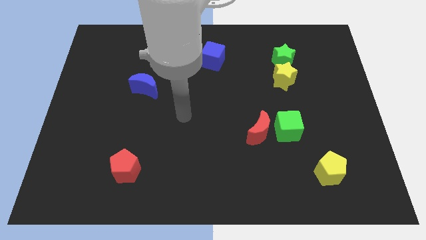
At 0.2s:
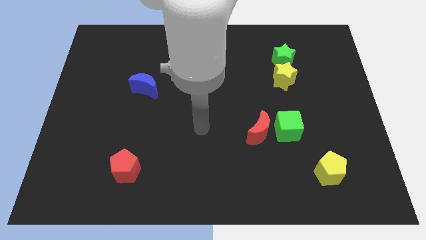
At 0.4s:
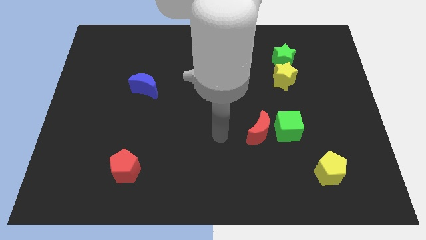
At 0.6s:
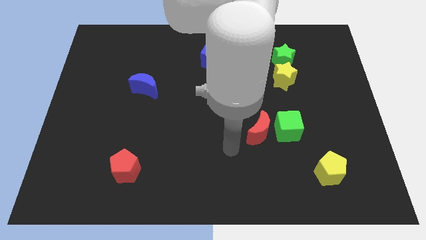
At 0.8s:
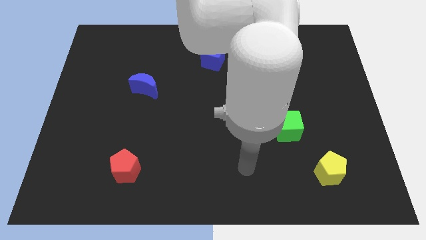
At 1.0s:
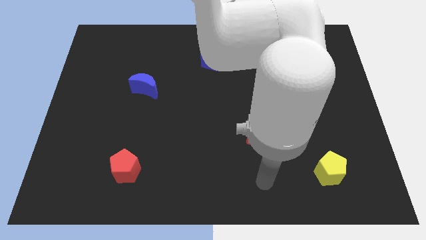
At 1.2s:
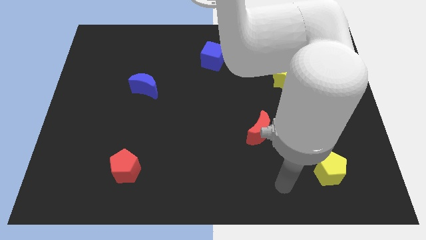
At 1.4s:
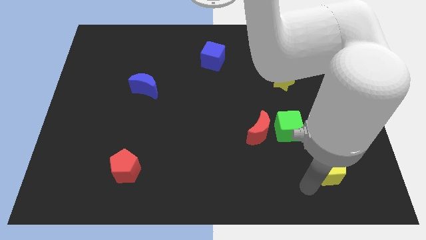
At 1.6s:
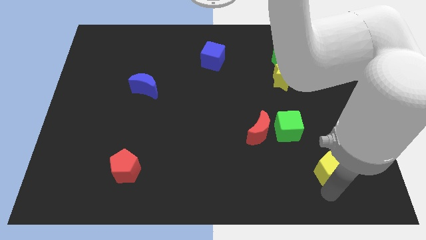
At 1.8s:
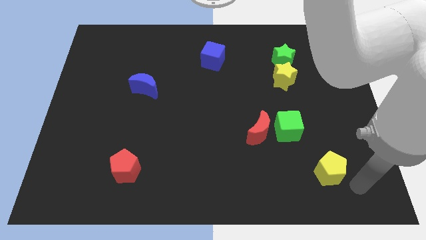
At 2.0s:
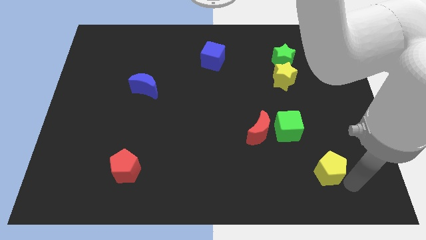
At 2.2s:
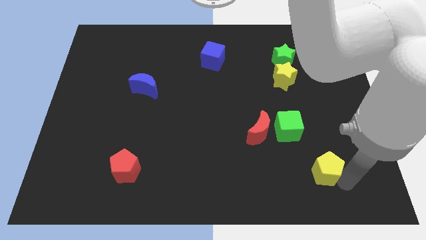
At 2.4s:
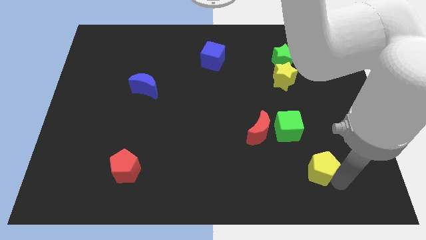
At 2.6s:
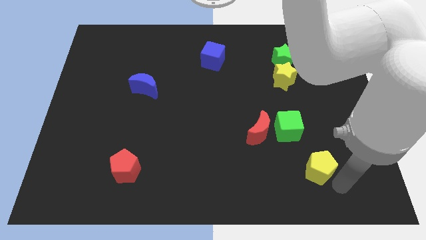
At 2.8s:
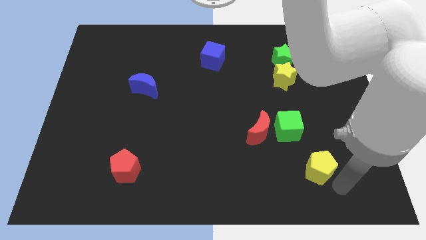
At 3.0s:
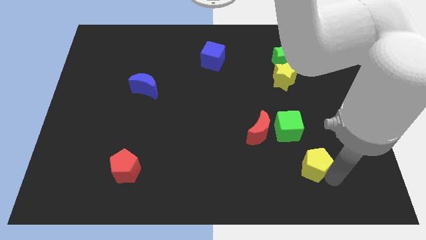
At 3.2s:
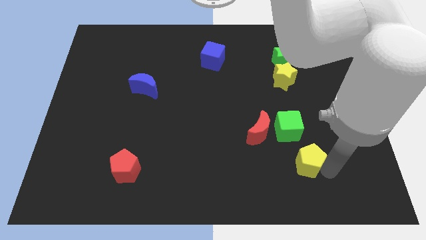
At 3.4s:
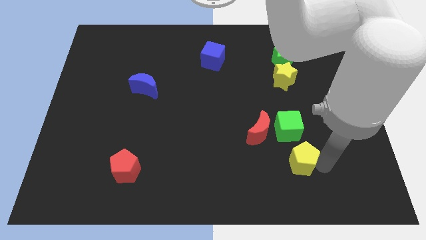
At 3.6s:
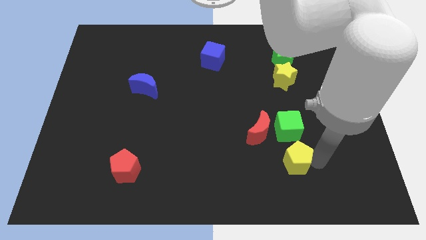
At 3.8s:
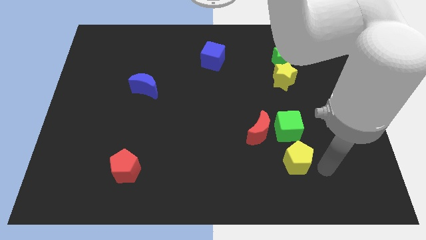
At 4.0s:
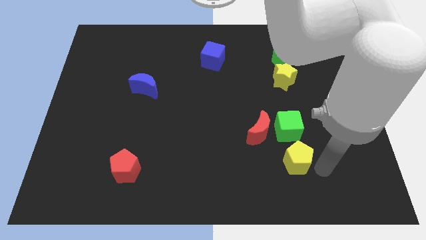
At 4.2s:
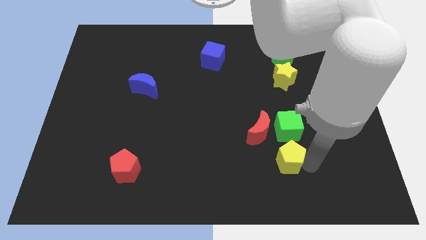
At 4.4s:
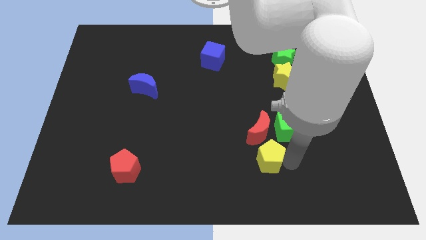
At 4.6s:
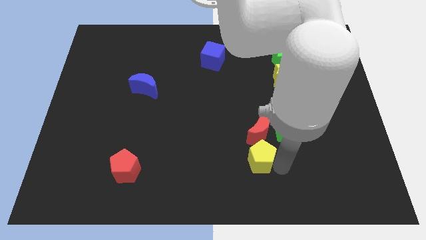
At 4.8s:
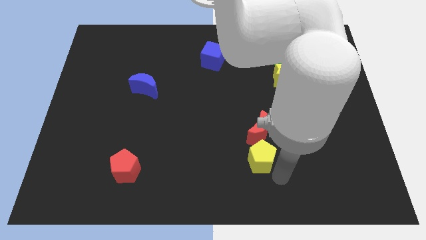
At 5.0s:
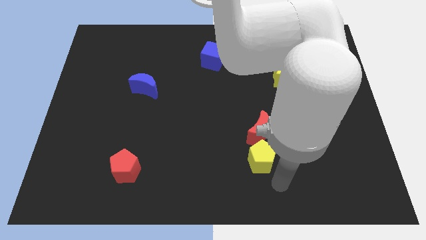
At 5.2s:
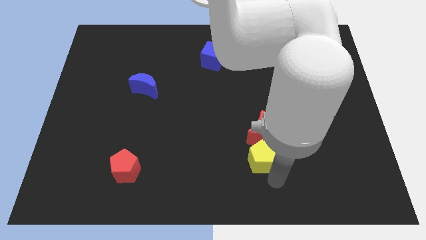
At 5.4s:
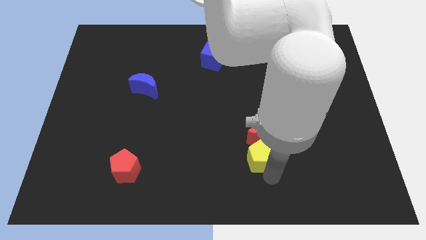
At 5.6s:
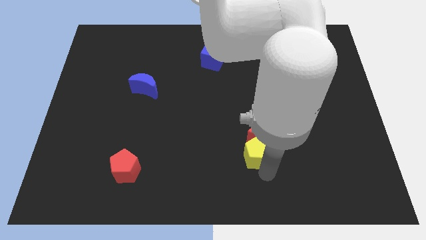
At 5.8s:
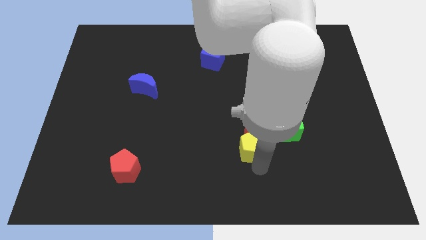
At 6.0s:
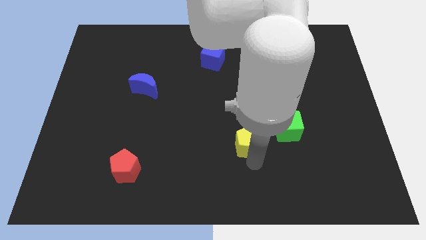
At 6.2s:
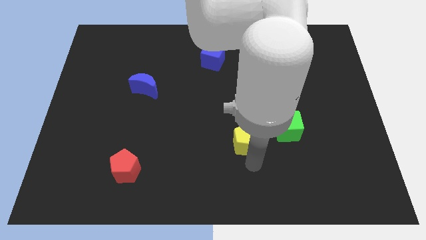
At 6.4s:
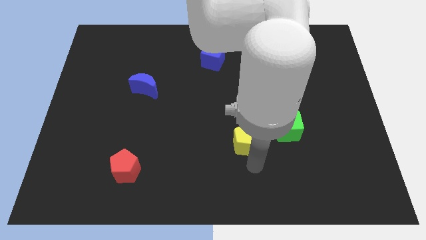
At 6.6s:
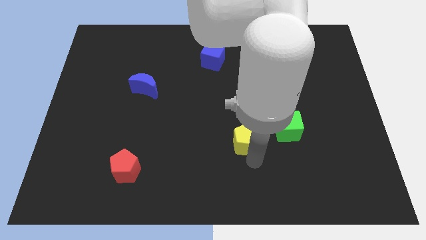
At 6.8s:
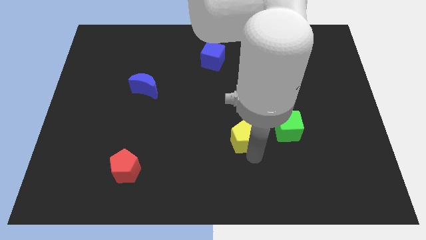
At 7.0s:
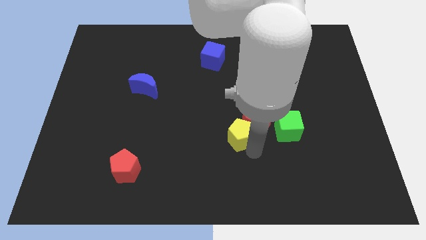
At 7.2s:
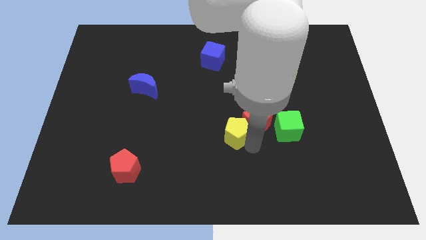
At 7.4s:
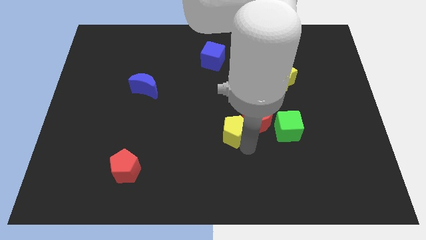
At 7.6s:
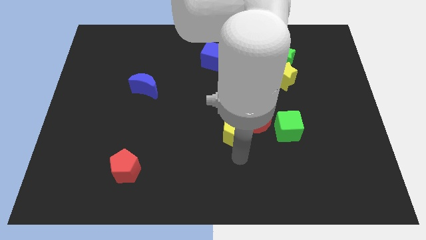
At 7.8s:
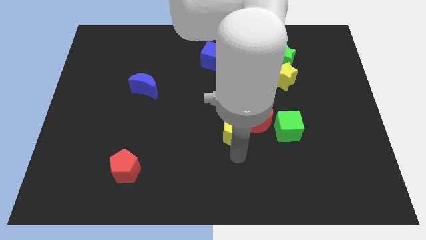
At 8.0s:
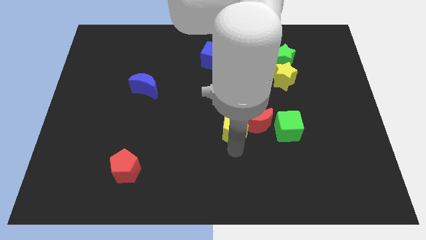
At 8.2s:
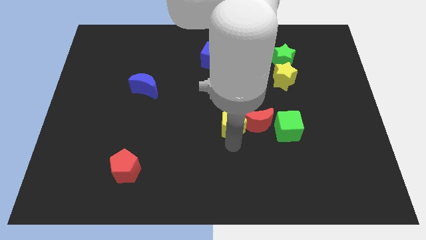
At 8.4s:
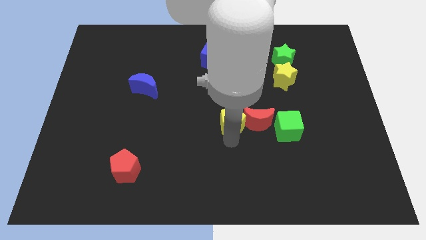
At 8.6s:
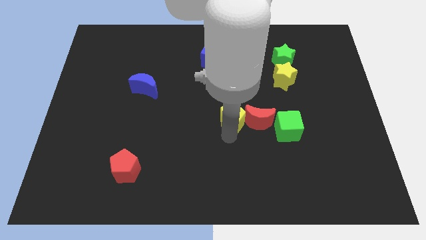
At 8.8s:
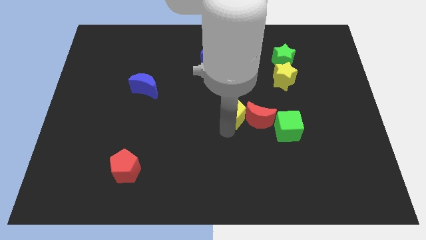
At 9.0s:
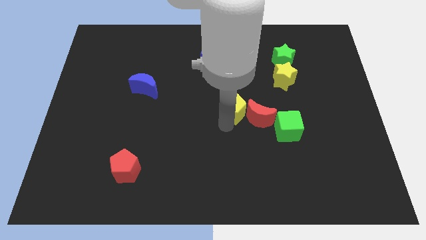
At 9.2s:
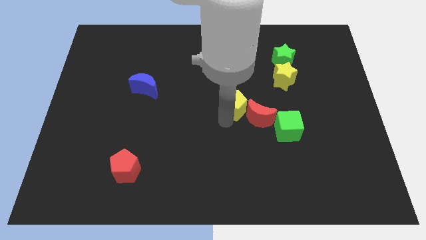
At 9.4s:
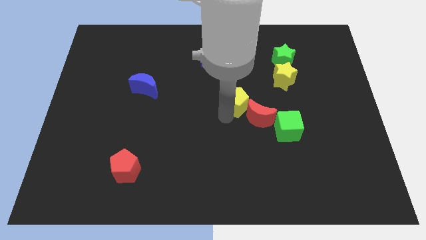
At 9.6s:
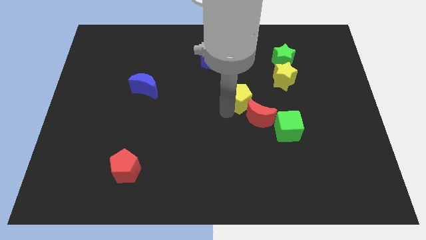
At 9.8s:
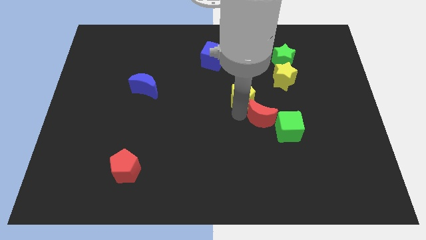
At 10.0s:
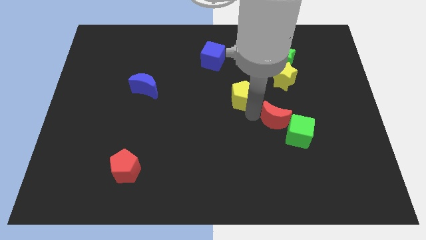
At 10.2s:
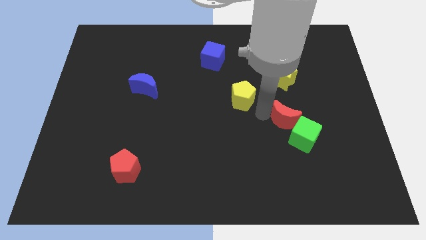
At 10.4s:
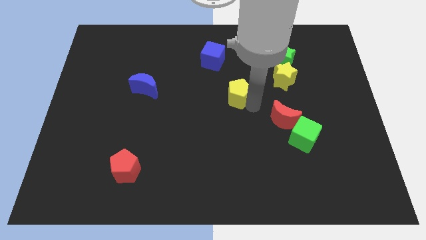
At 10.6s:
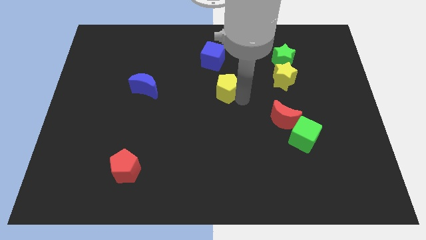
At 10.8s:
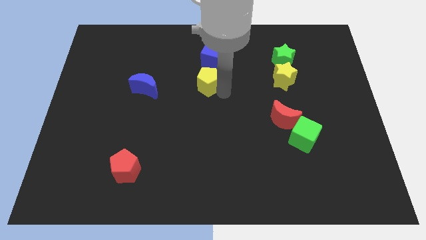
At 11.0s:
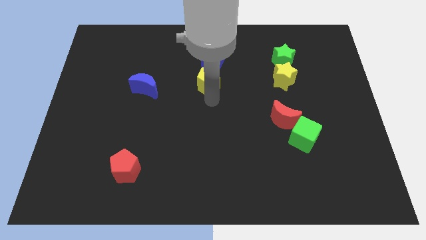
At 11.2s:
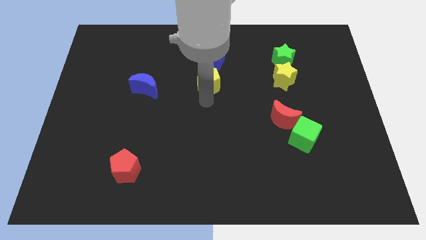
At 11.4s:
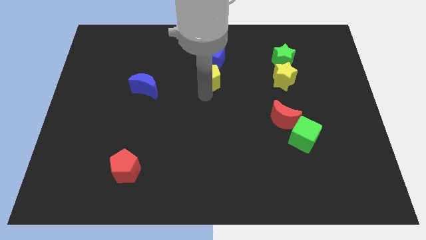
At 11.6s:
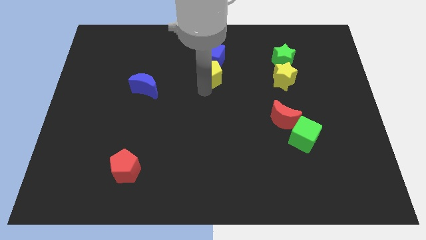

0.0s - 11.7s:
move the yellow pentagon close to the blue cube

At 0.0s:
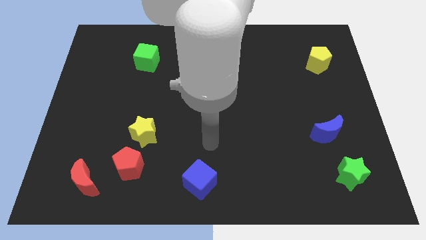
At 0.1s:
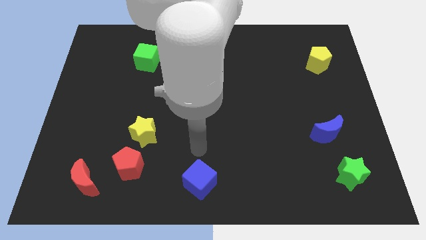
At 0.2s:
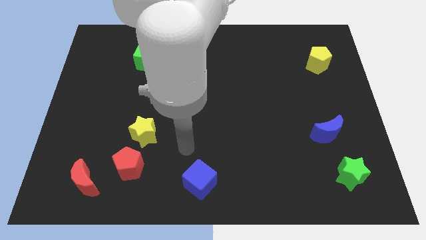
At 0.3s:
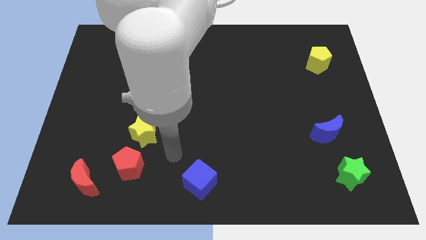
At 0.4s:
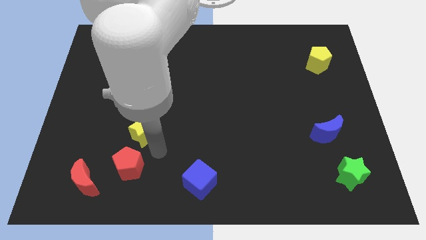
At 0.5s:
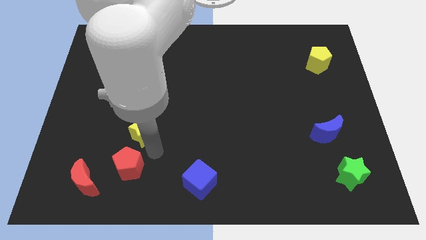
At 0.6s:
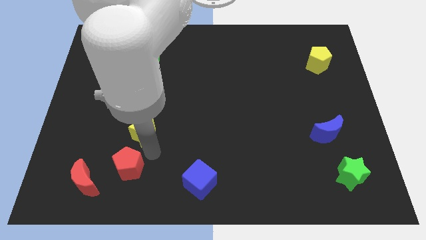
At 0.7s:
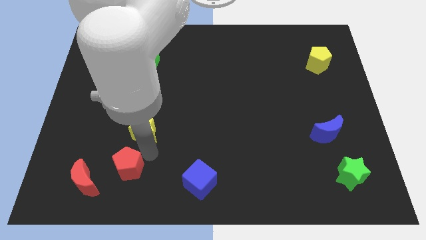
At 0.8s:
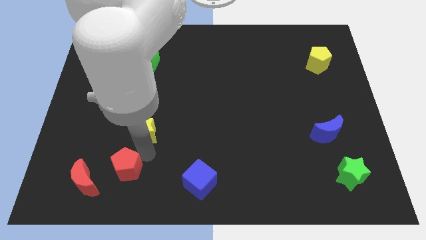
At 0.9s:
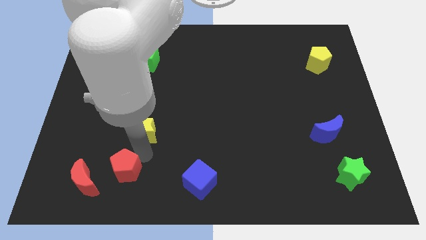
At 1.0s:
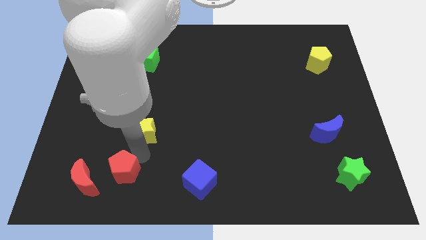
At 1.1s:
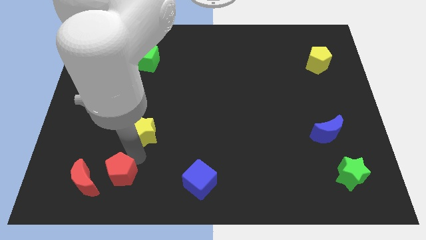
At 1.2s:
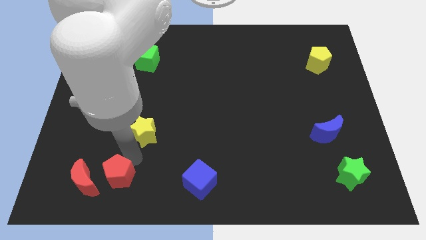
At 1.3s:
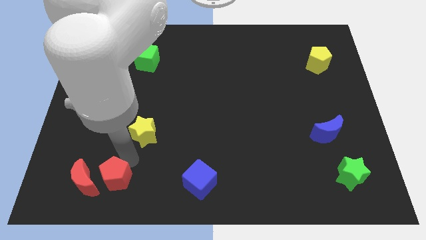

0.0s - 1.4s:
push the red pentagon to the red moon

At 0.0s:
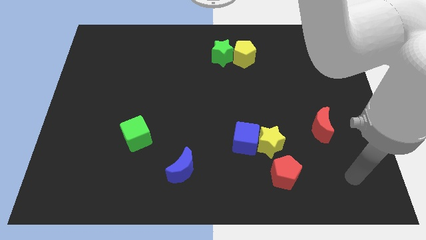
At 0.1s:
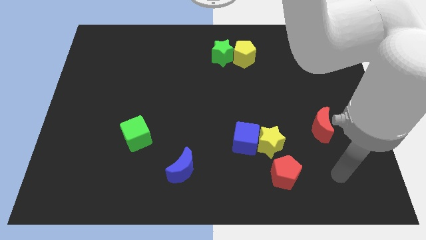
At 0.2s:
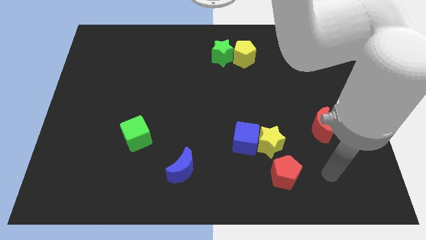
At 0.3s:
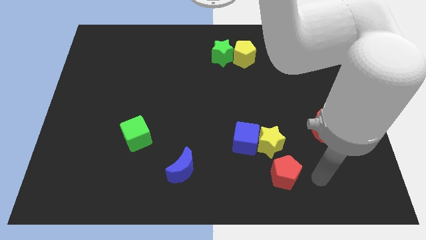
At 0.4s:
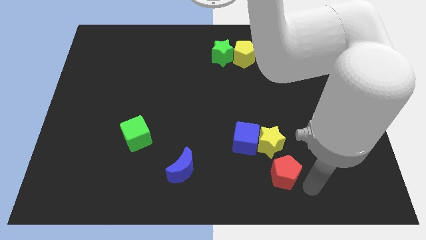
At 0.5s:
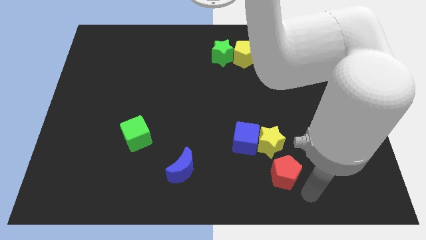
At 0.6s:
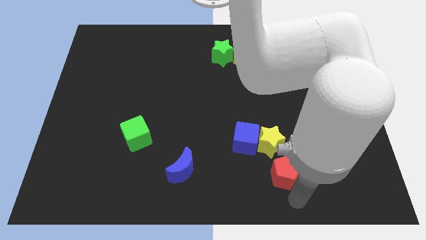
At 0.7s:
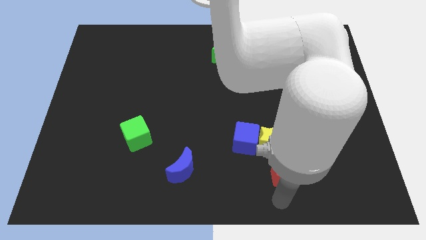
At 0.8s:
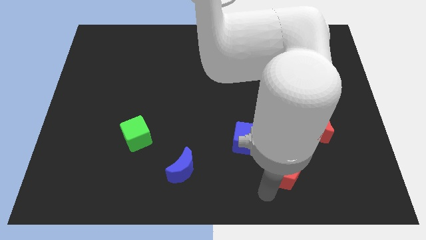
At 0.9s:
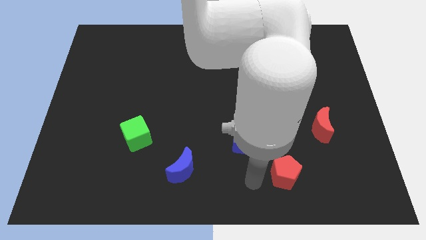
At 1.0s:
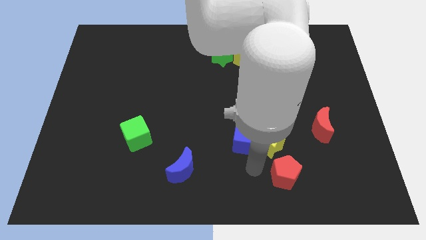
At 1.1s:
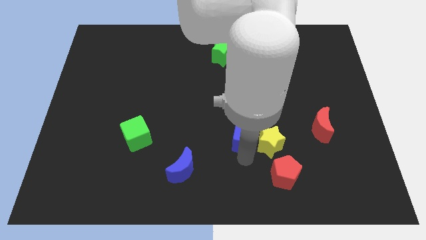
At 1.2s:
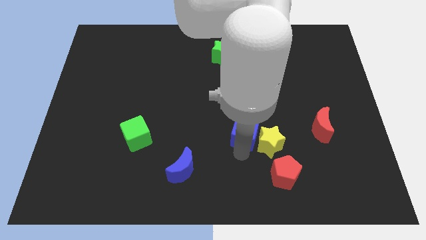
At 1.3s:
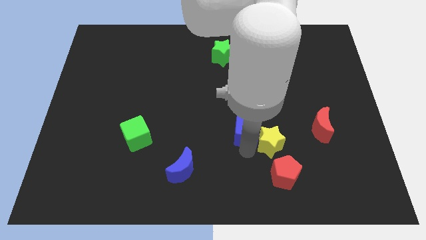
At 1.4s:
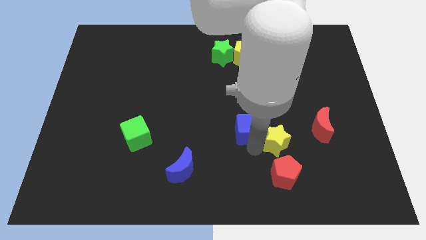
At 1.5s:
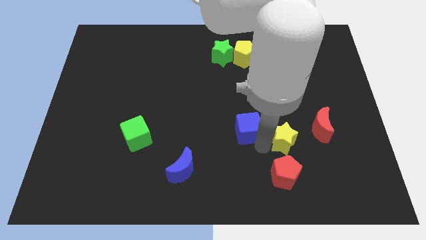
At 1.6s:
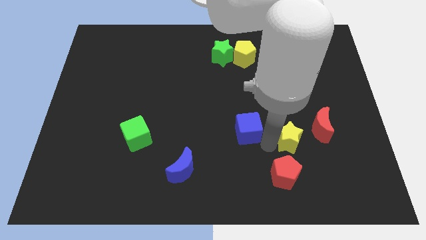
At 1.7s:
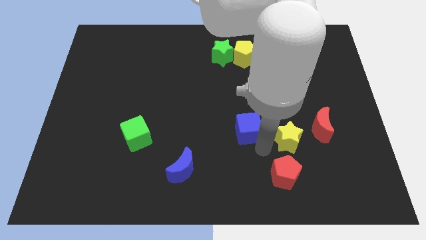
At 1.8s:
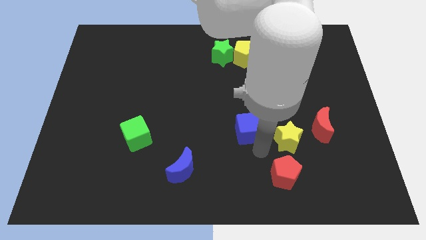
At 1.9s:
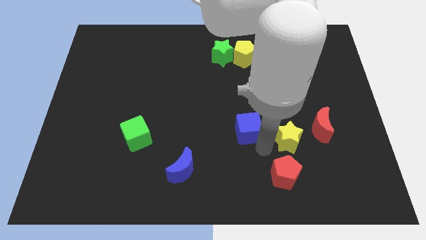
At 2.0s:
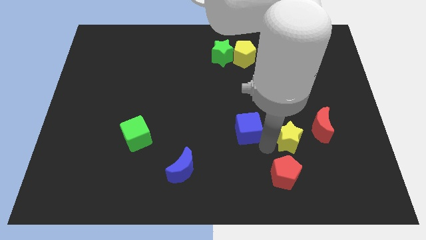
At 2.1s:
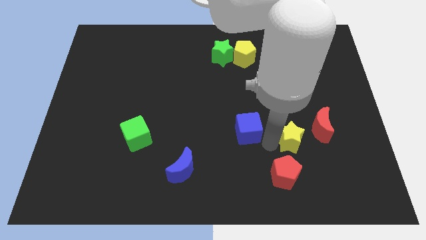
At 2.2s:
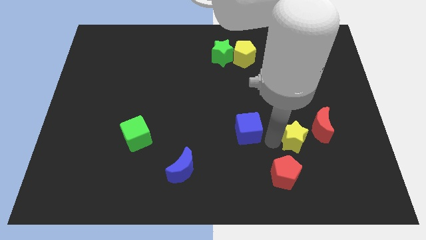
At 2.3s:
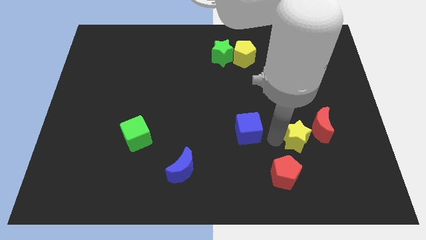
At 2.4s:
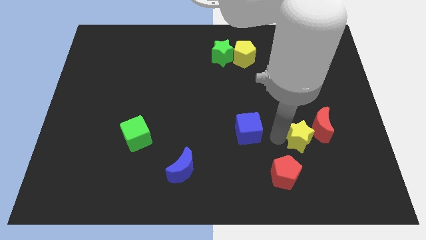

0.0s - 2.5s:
push the yellow star towards the red moon
